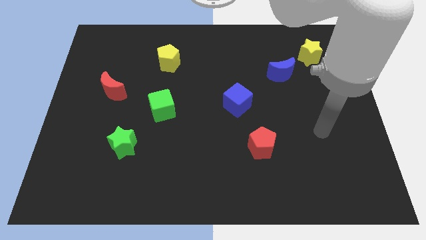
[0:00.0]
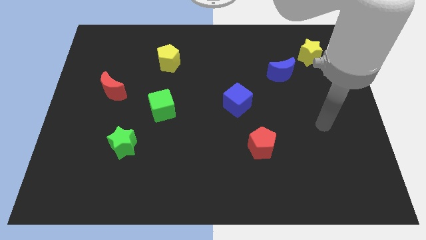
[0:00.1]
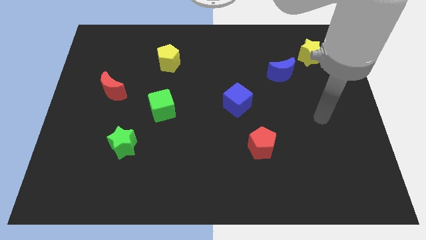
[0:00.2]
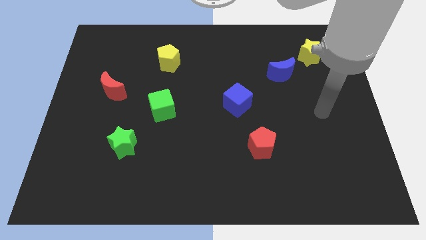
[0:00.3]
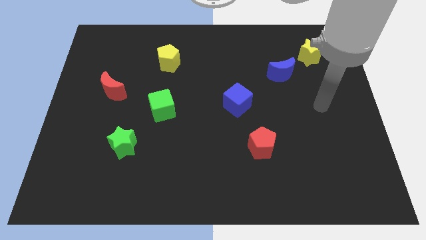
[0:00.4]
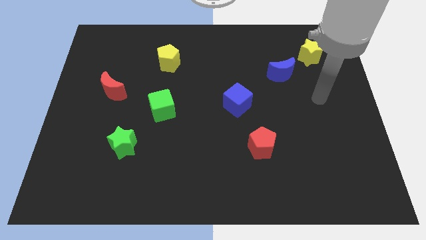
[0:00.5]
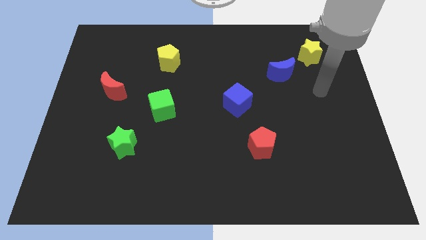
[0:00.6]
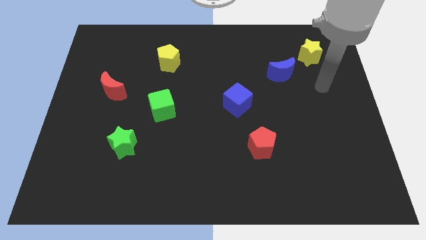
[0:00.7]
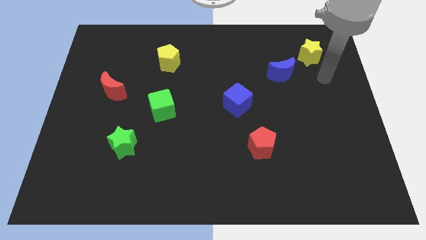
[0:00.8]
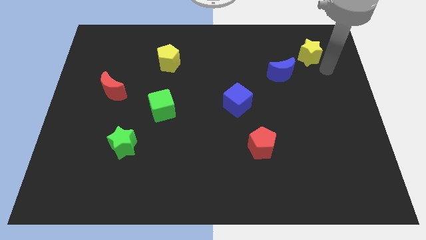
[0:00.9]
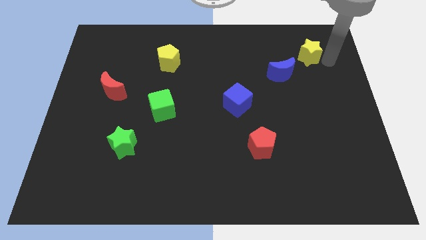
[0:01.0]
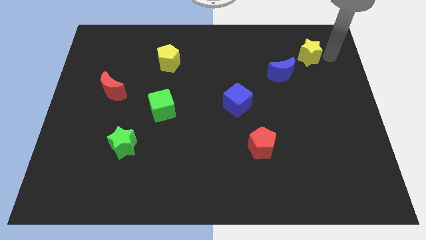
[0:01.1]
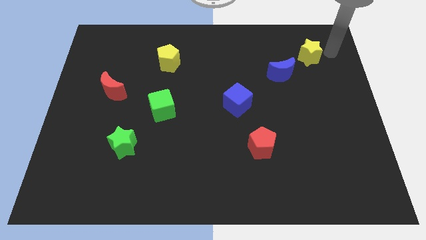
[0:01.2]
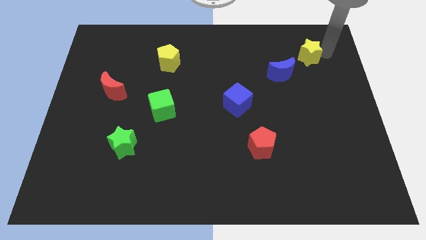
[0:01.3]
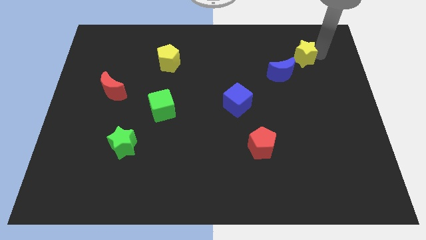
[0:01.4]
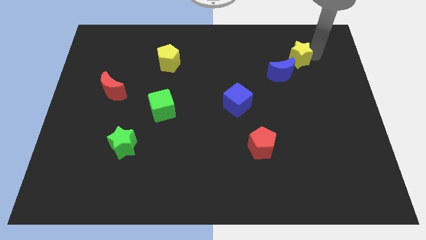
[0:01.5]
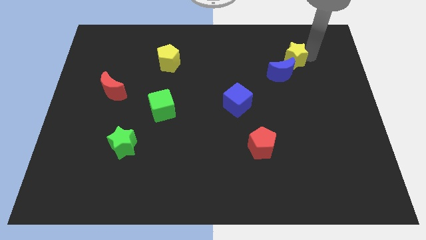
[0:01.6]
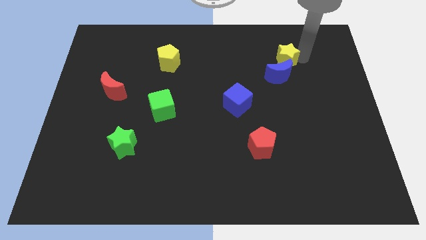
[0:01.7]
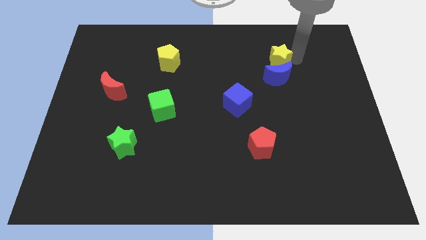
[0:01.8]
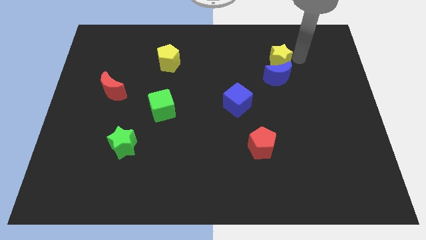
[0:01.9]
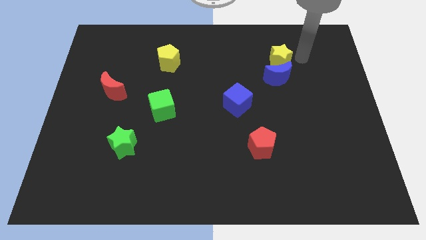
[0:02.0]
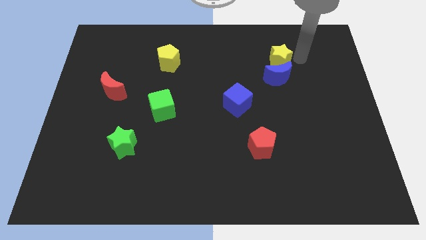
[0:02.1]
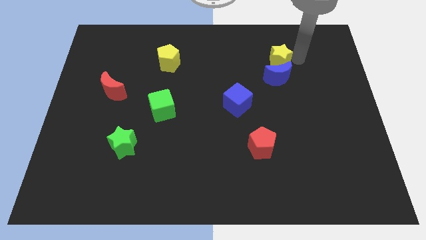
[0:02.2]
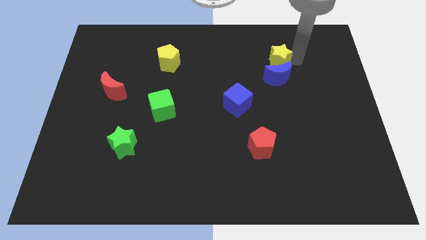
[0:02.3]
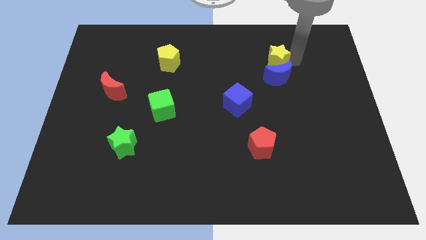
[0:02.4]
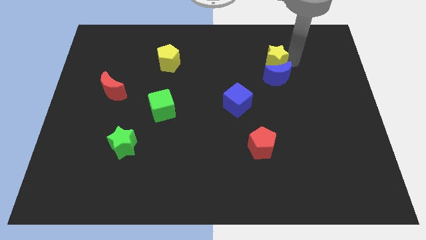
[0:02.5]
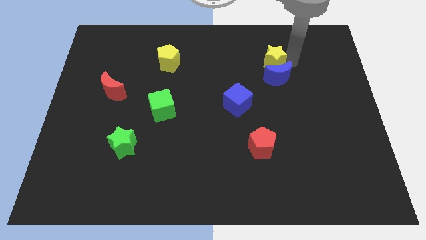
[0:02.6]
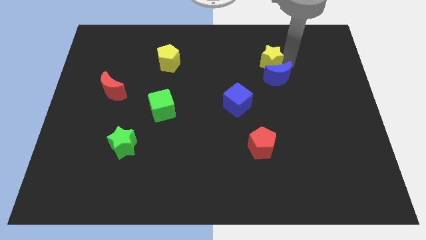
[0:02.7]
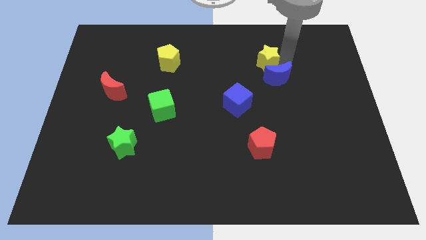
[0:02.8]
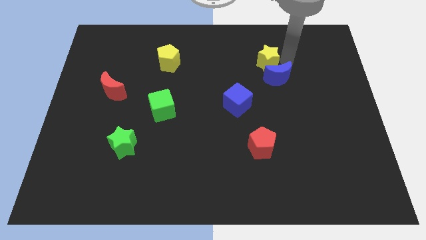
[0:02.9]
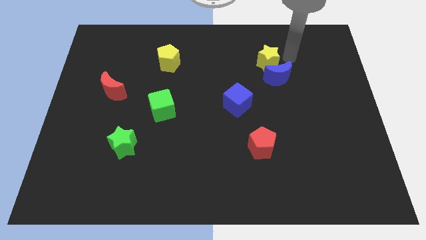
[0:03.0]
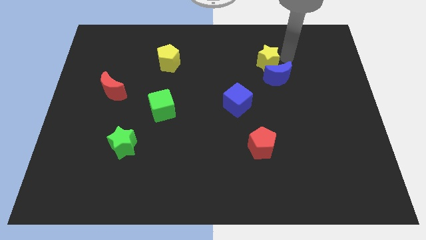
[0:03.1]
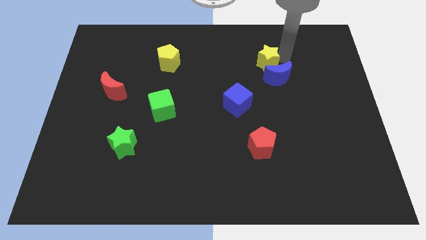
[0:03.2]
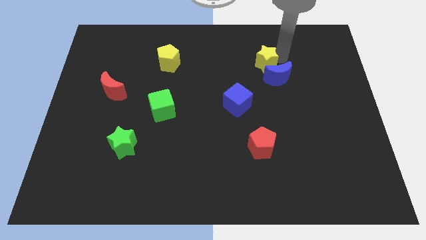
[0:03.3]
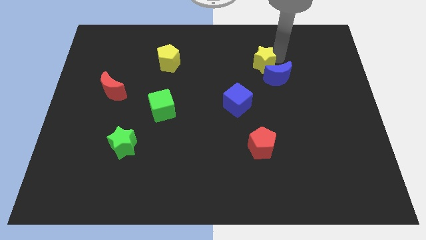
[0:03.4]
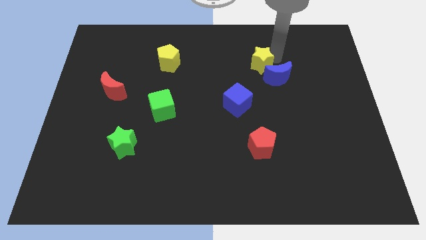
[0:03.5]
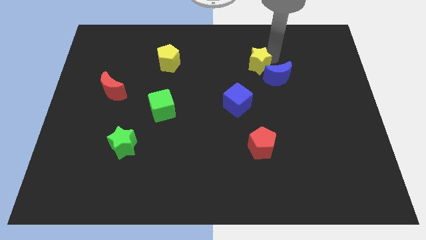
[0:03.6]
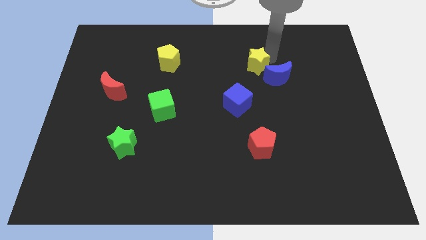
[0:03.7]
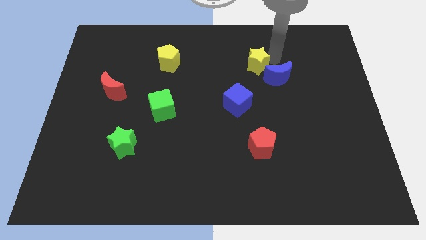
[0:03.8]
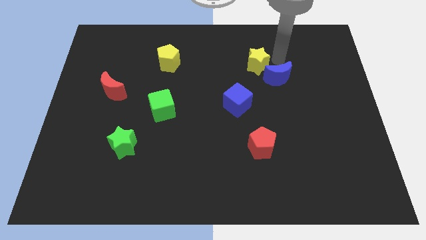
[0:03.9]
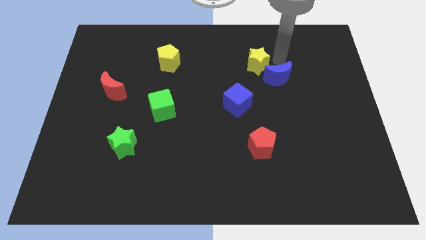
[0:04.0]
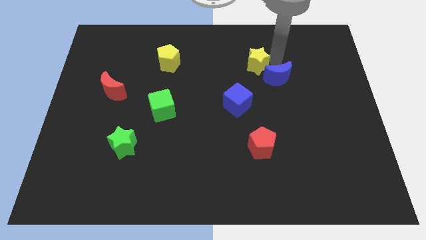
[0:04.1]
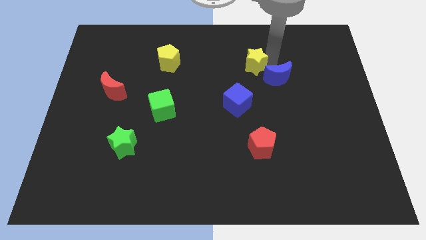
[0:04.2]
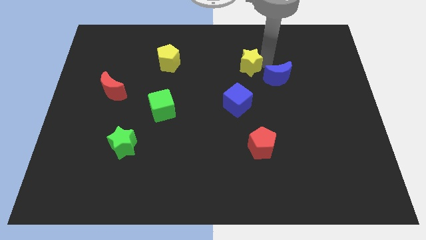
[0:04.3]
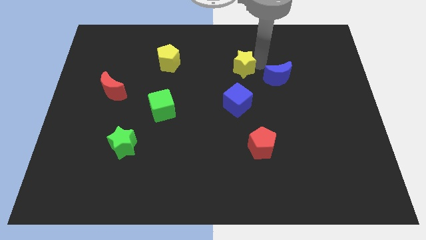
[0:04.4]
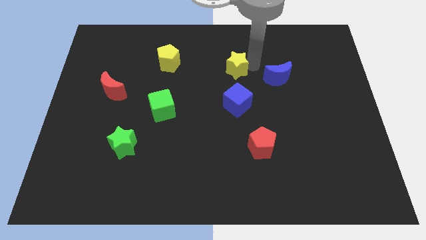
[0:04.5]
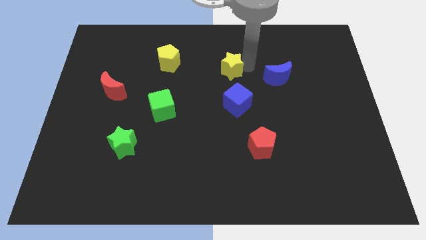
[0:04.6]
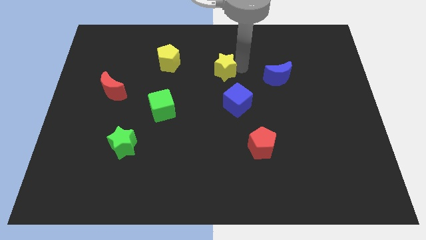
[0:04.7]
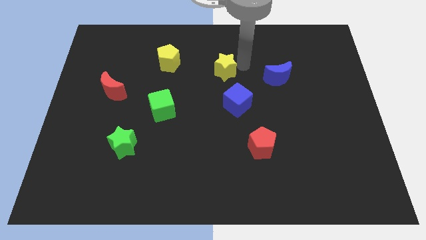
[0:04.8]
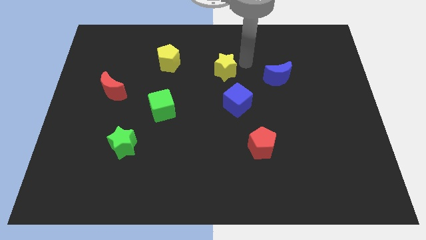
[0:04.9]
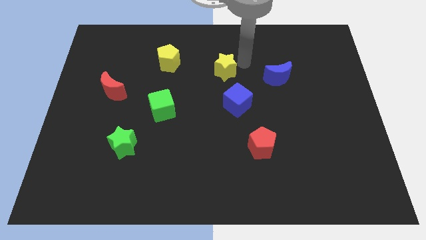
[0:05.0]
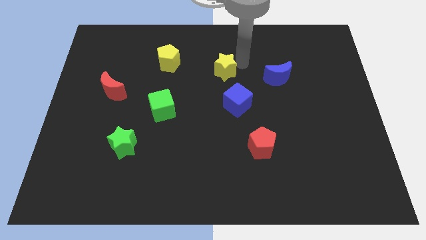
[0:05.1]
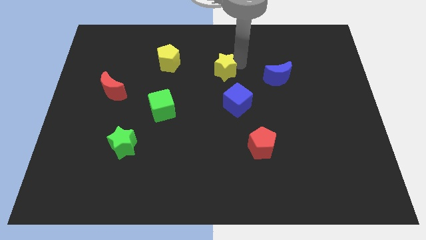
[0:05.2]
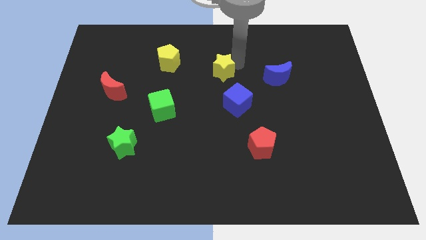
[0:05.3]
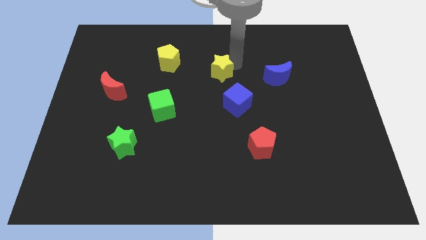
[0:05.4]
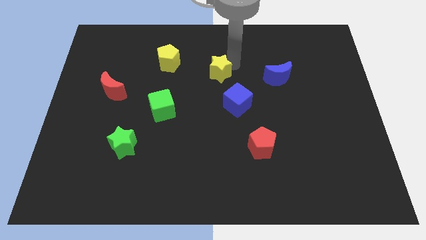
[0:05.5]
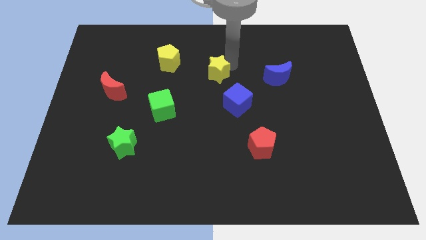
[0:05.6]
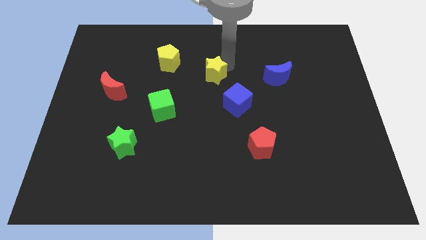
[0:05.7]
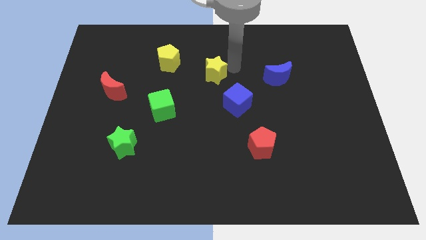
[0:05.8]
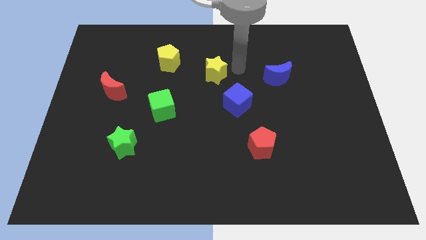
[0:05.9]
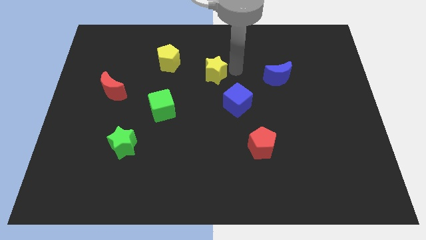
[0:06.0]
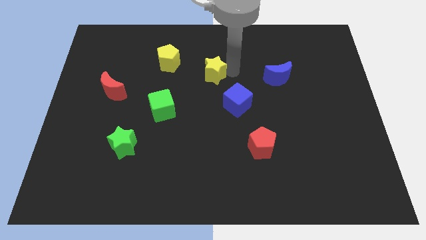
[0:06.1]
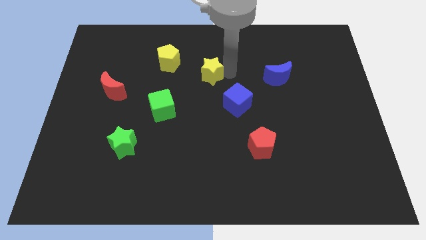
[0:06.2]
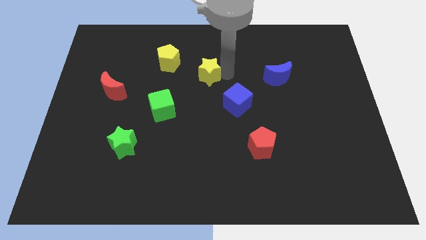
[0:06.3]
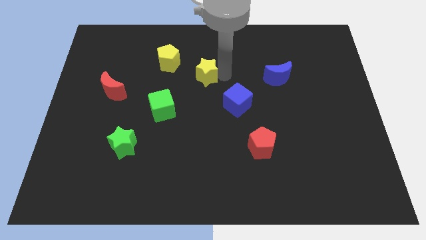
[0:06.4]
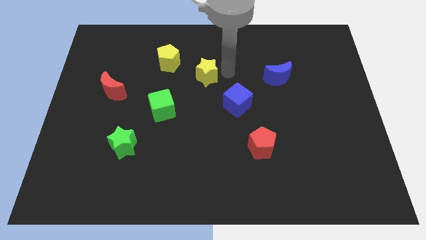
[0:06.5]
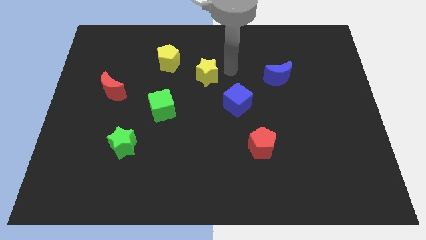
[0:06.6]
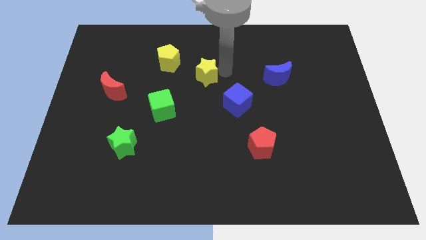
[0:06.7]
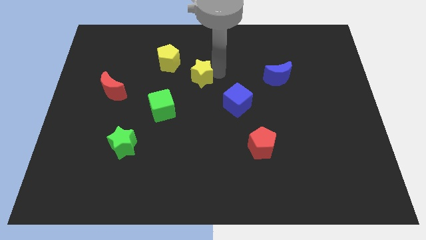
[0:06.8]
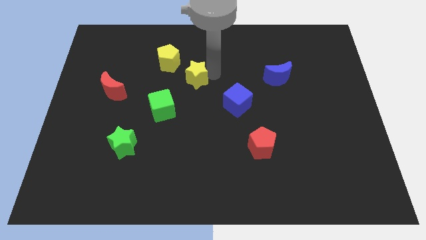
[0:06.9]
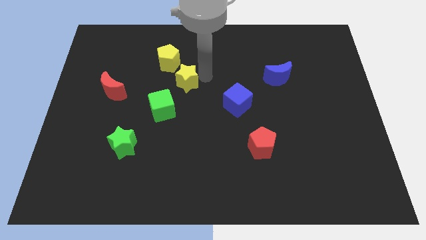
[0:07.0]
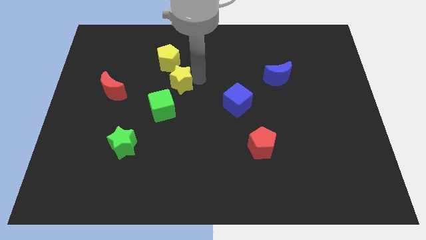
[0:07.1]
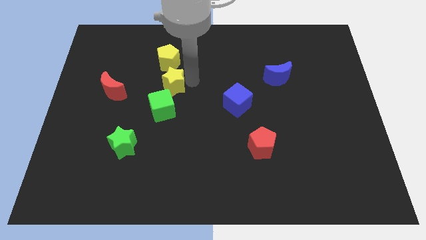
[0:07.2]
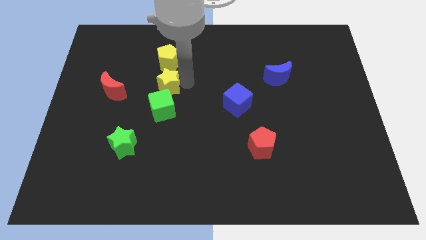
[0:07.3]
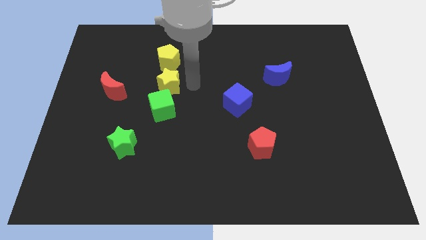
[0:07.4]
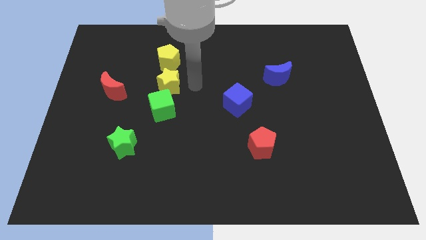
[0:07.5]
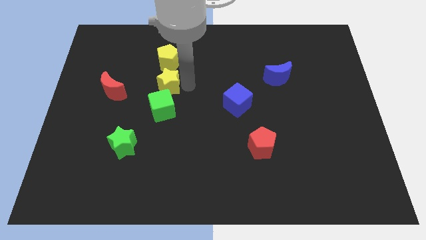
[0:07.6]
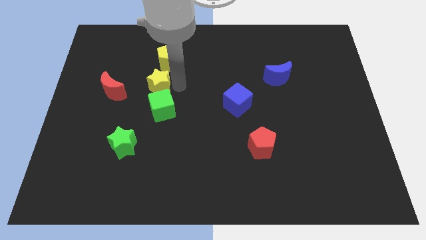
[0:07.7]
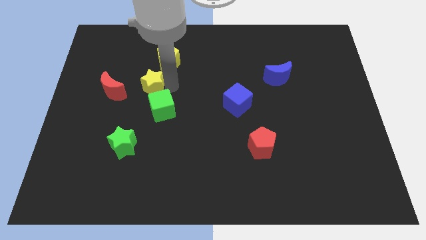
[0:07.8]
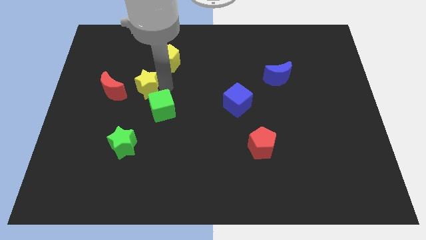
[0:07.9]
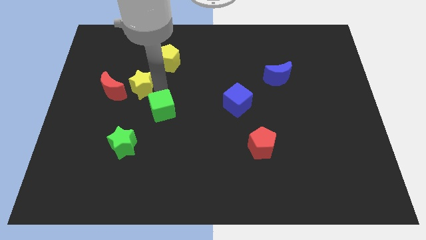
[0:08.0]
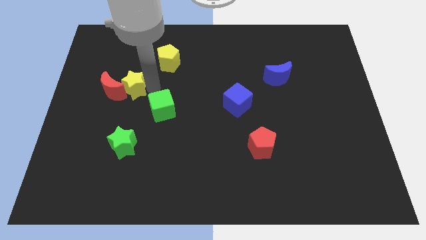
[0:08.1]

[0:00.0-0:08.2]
push the yellow star next to the red moon
